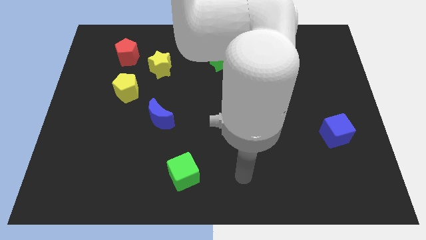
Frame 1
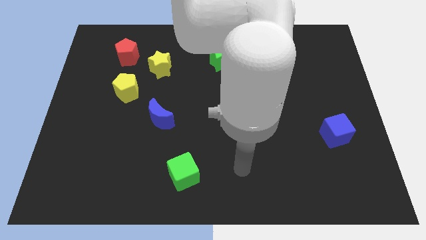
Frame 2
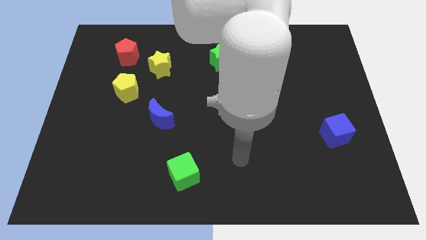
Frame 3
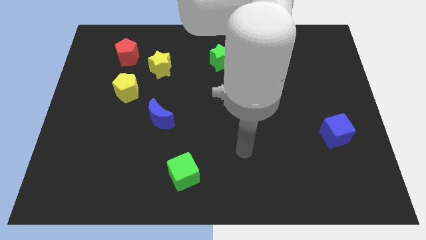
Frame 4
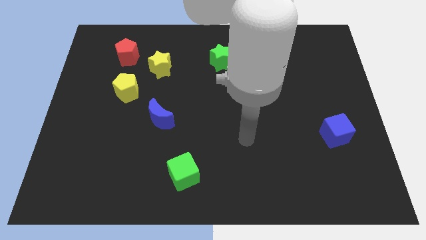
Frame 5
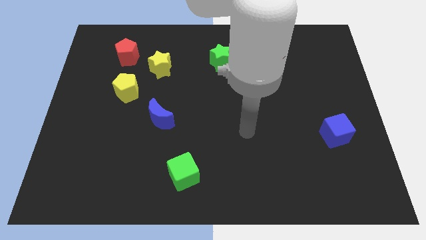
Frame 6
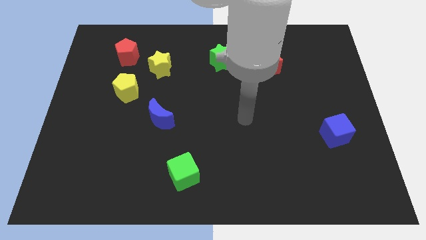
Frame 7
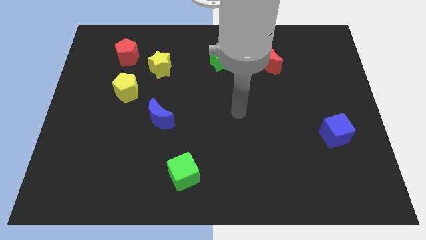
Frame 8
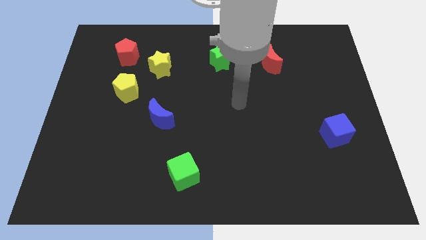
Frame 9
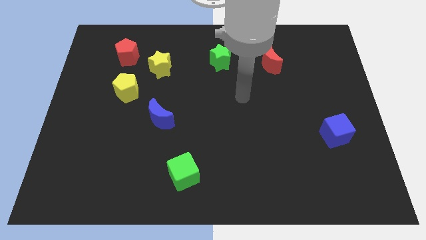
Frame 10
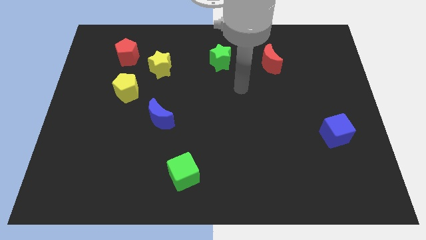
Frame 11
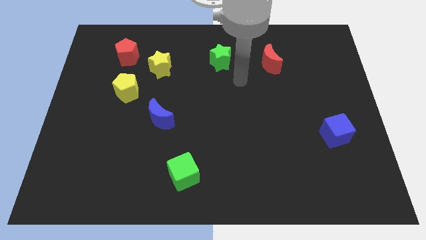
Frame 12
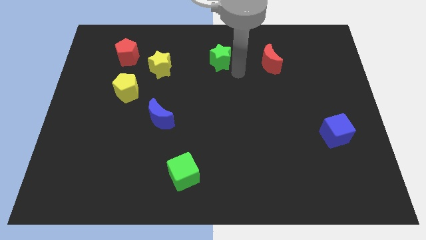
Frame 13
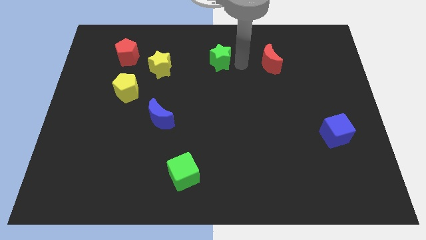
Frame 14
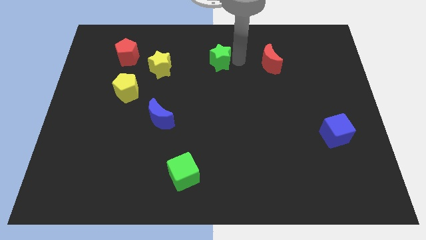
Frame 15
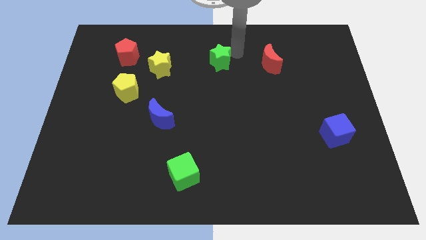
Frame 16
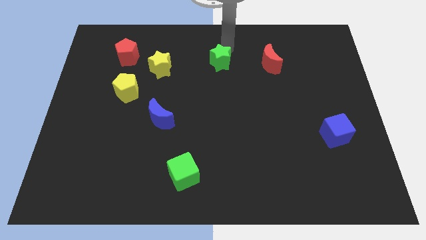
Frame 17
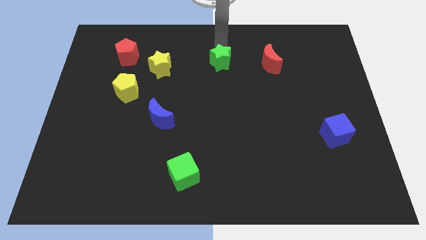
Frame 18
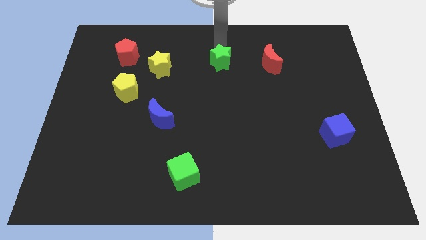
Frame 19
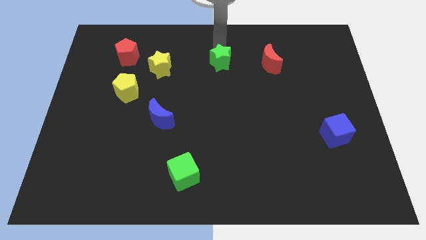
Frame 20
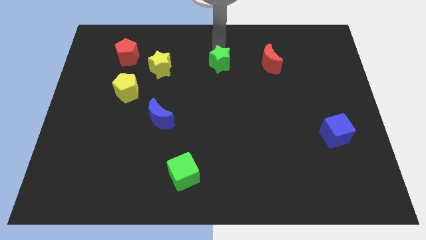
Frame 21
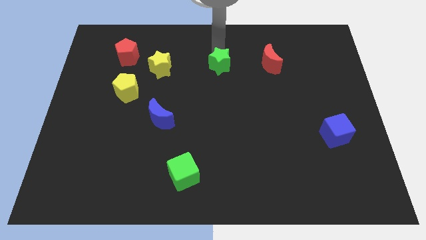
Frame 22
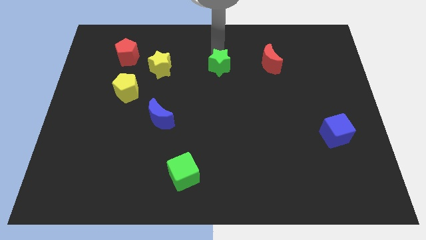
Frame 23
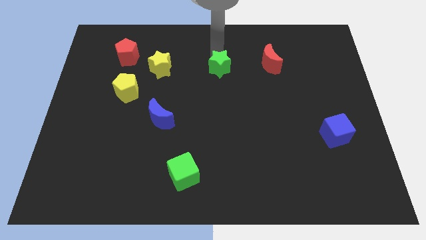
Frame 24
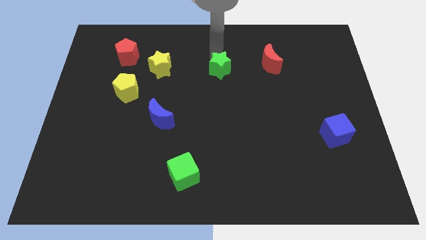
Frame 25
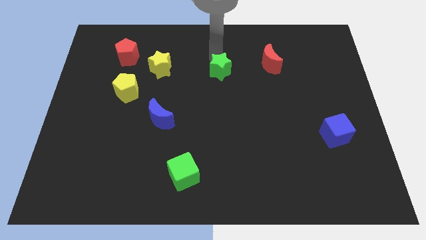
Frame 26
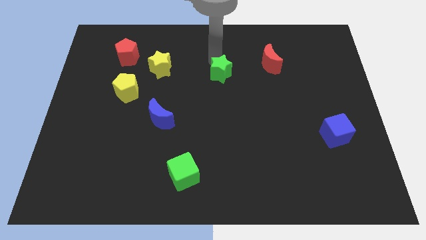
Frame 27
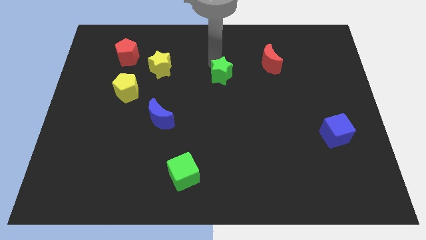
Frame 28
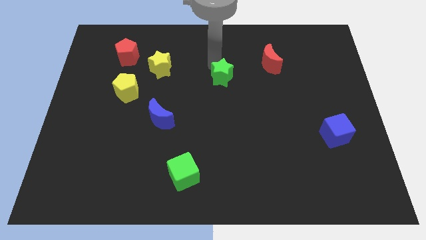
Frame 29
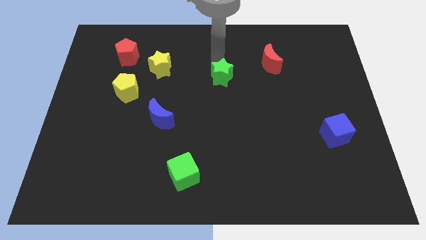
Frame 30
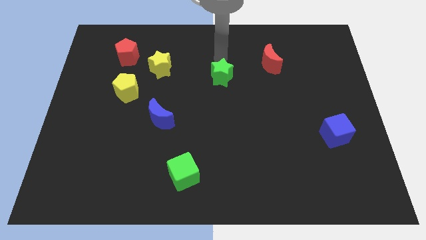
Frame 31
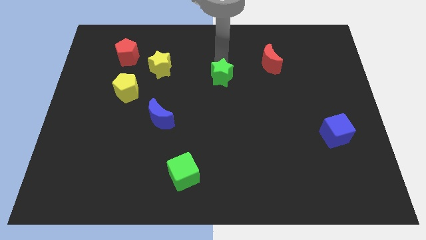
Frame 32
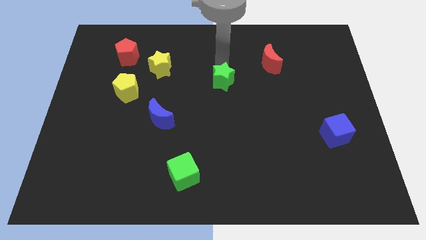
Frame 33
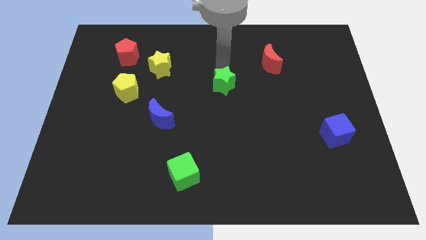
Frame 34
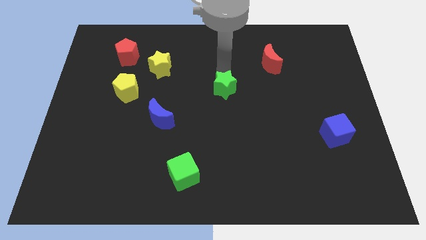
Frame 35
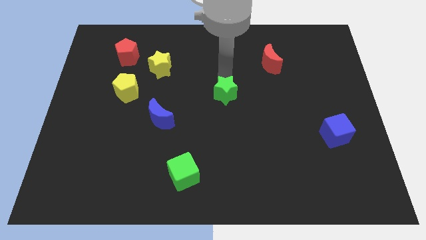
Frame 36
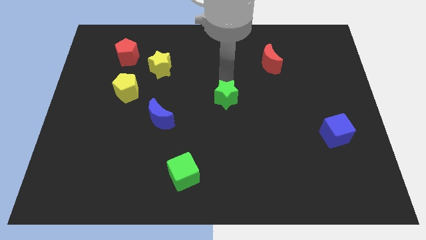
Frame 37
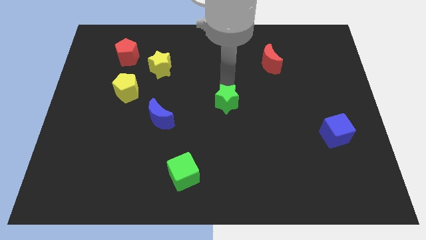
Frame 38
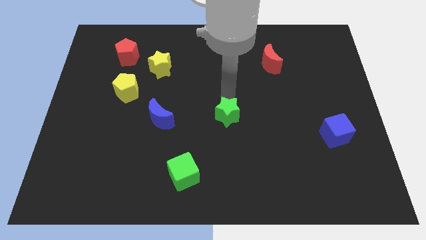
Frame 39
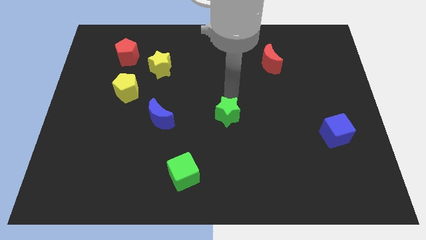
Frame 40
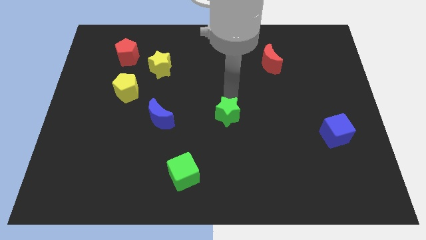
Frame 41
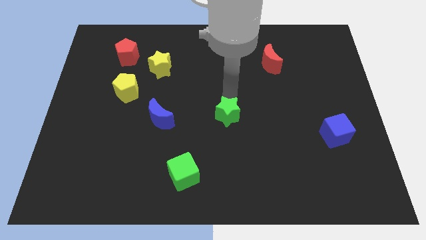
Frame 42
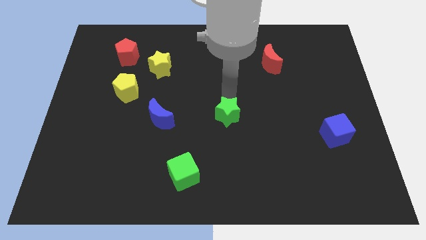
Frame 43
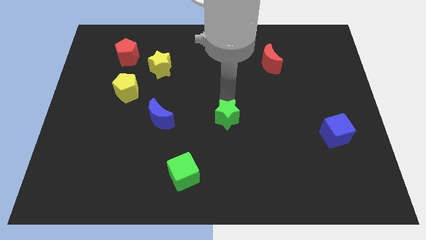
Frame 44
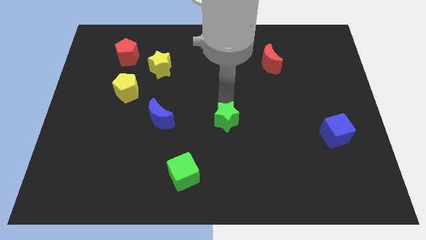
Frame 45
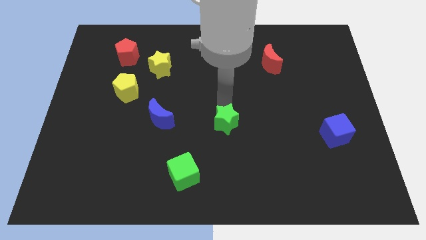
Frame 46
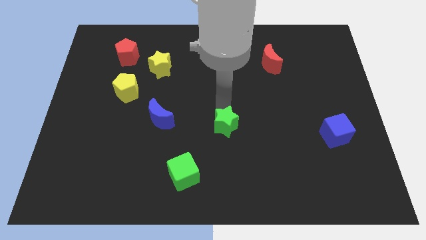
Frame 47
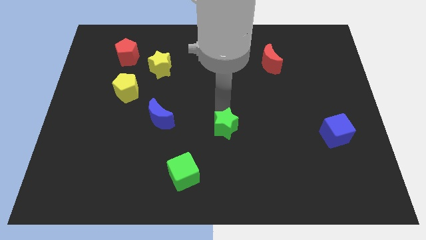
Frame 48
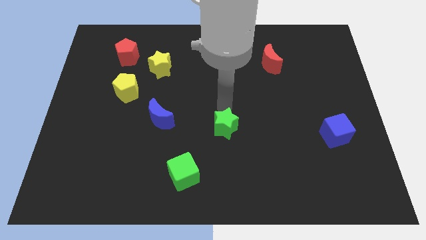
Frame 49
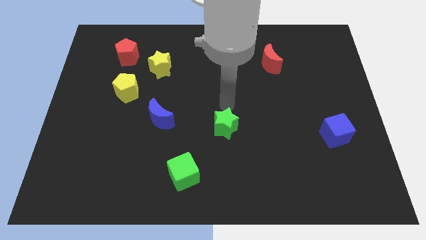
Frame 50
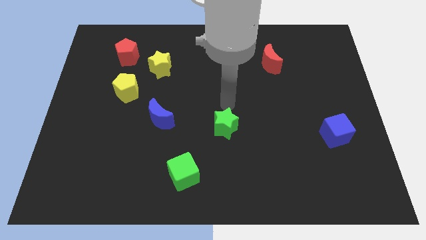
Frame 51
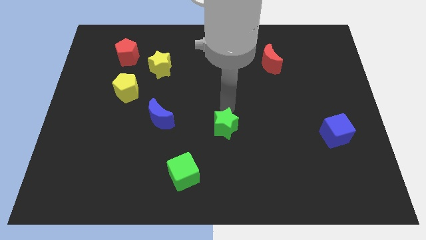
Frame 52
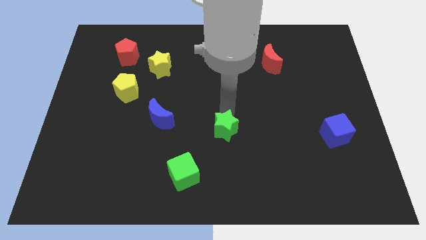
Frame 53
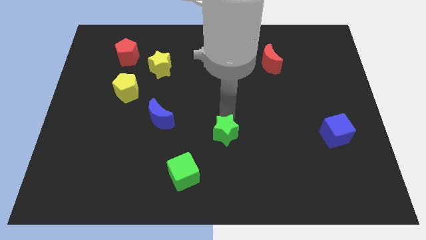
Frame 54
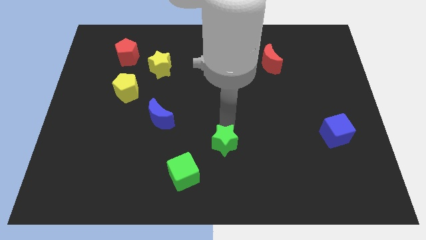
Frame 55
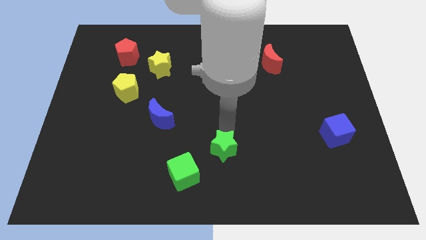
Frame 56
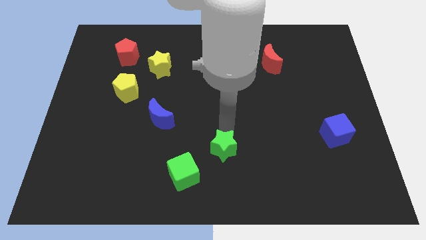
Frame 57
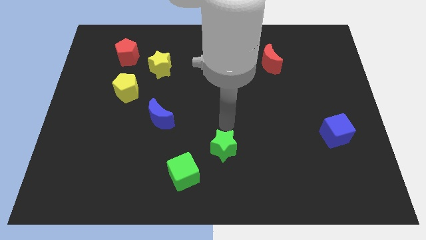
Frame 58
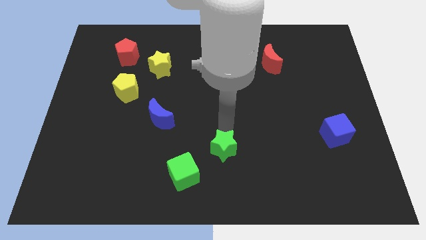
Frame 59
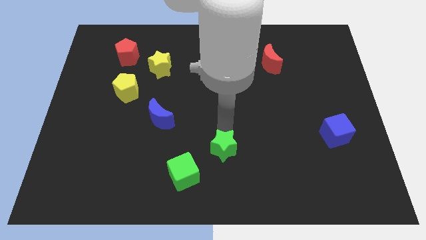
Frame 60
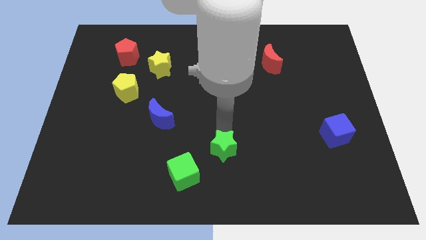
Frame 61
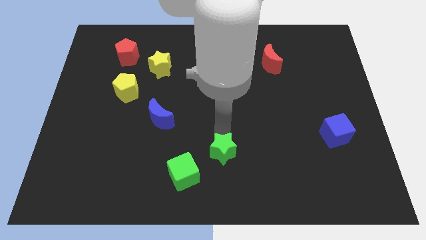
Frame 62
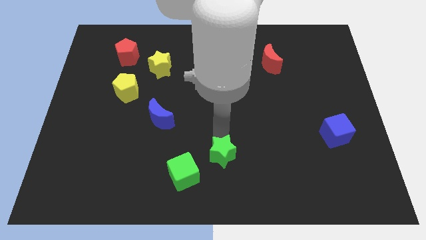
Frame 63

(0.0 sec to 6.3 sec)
move the green star to the bottom side

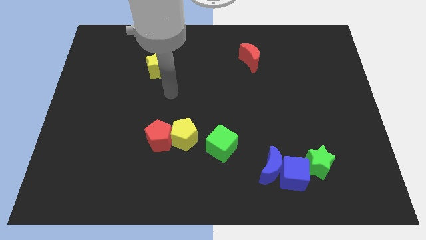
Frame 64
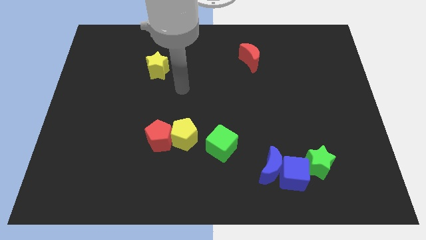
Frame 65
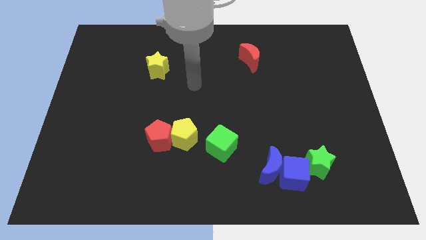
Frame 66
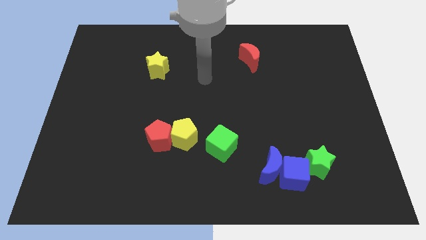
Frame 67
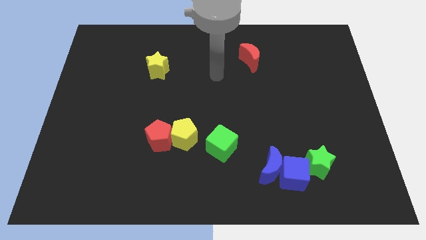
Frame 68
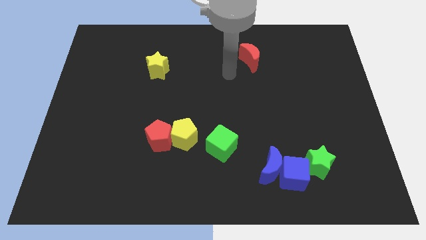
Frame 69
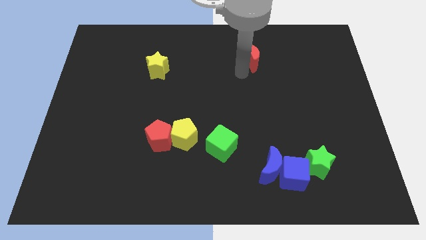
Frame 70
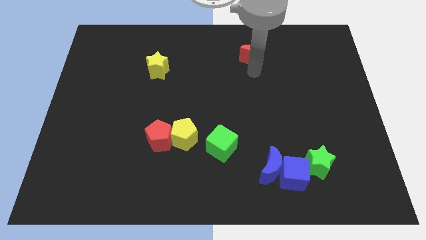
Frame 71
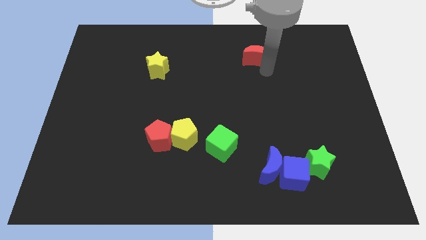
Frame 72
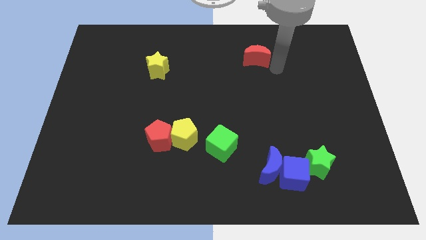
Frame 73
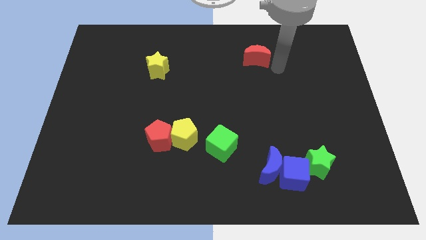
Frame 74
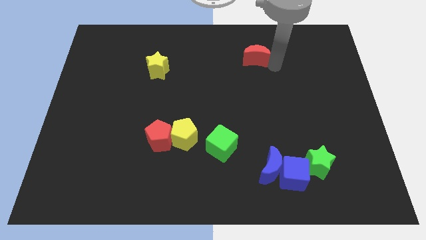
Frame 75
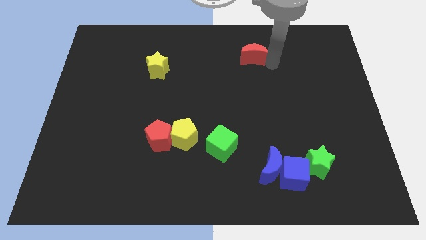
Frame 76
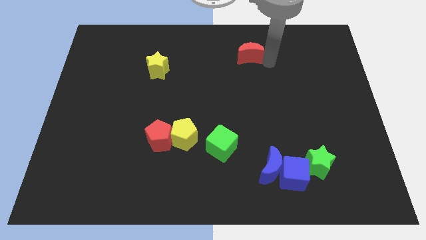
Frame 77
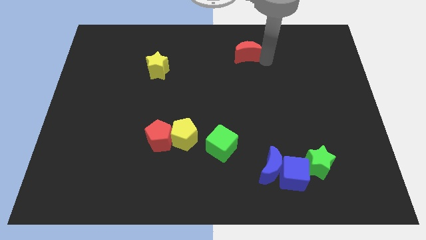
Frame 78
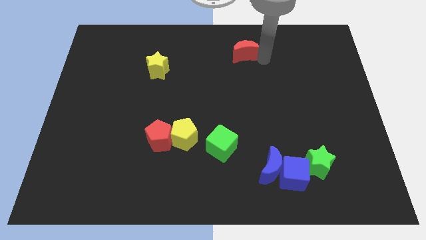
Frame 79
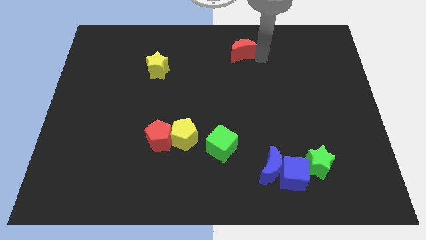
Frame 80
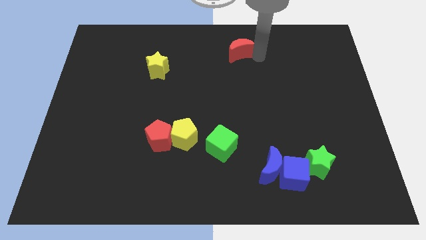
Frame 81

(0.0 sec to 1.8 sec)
push the red moon to the towards your base
